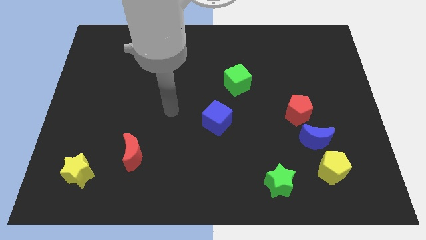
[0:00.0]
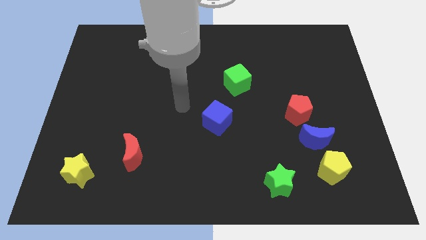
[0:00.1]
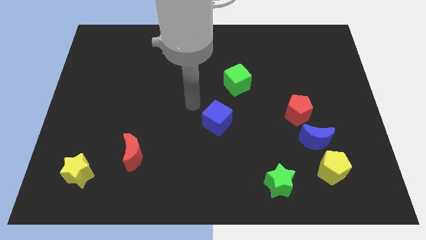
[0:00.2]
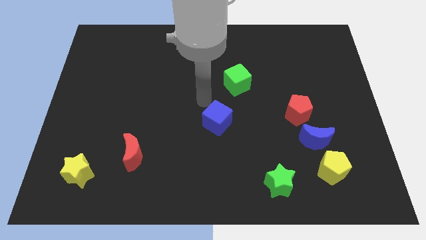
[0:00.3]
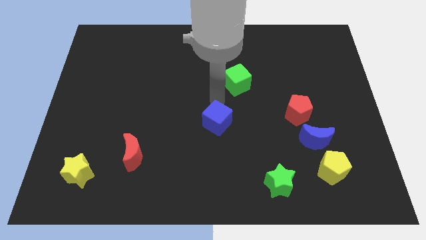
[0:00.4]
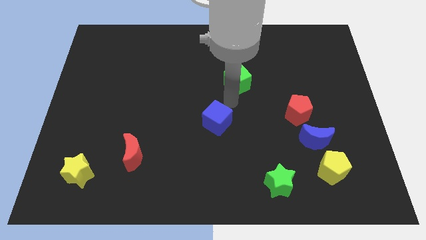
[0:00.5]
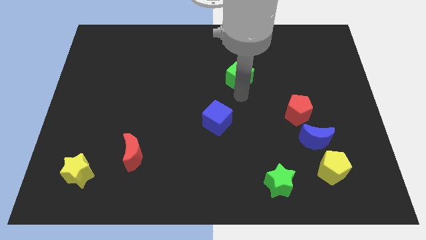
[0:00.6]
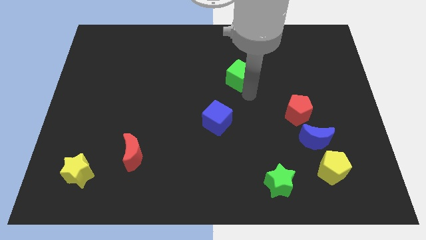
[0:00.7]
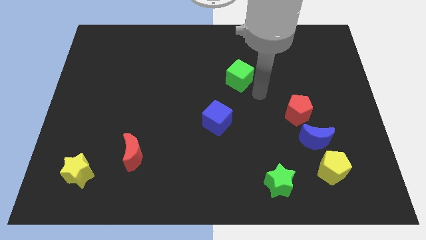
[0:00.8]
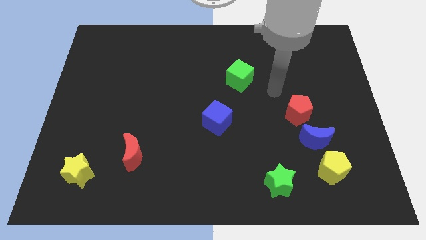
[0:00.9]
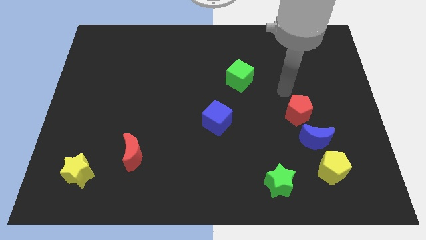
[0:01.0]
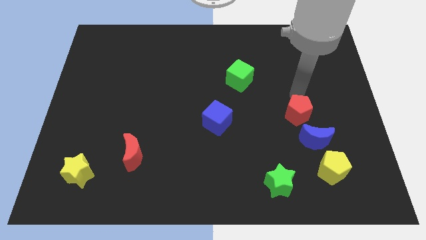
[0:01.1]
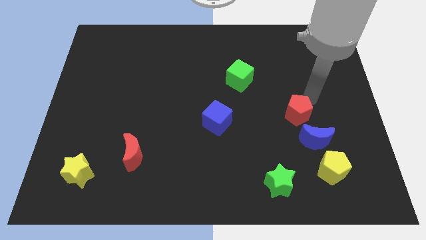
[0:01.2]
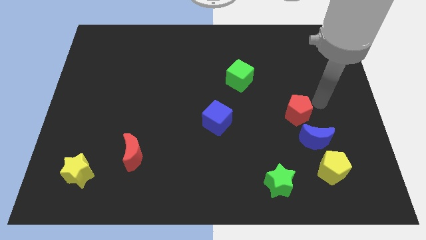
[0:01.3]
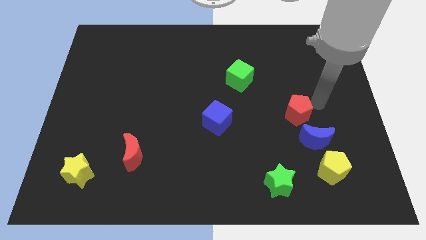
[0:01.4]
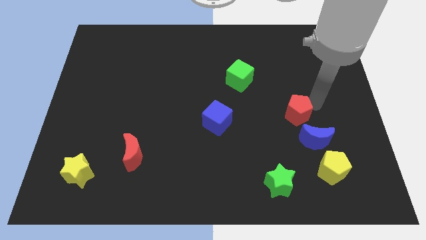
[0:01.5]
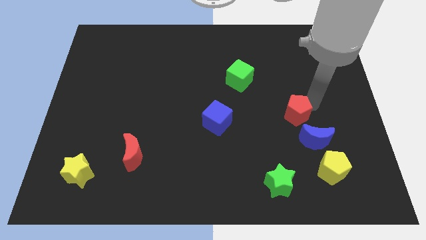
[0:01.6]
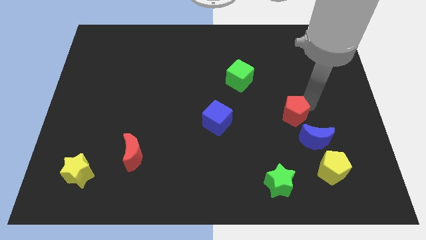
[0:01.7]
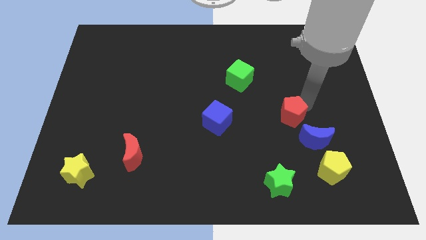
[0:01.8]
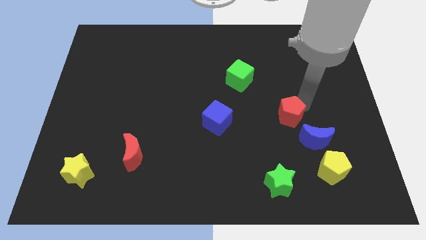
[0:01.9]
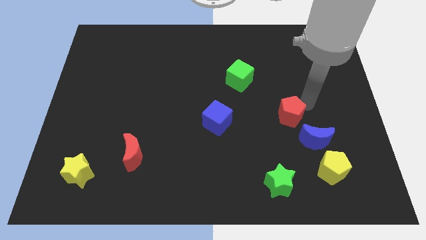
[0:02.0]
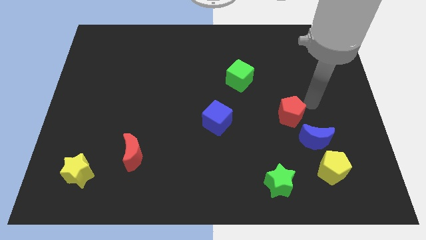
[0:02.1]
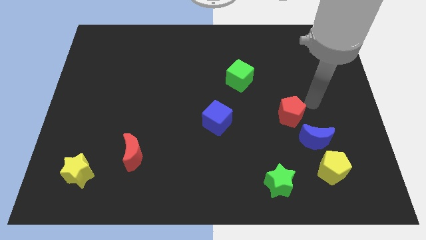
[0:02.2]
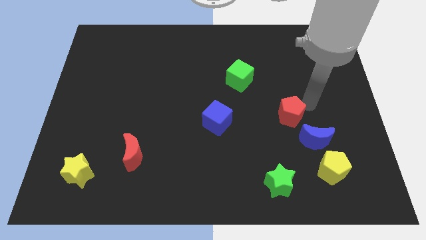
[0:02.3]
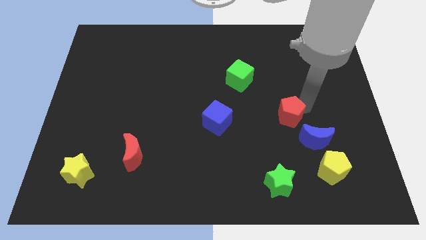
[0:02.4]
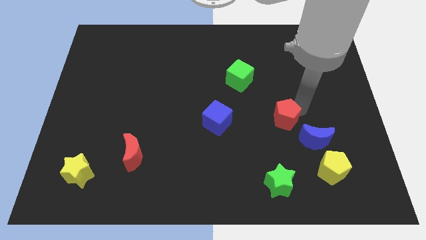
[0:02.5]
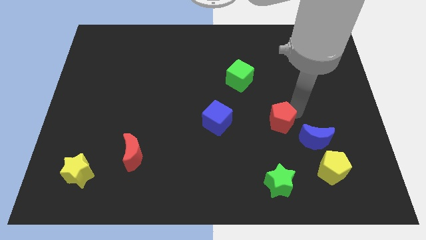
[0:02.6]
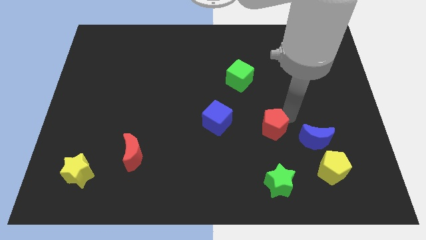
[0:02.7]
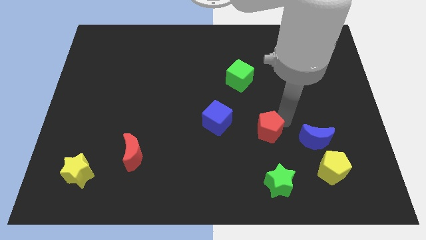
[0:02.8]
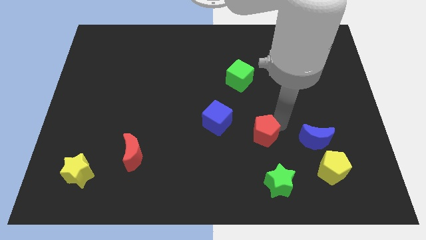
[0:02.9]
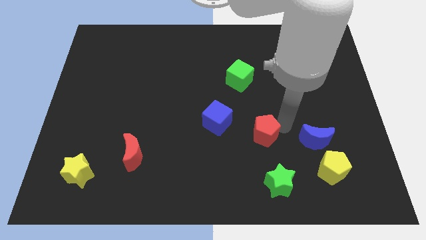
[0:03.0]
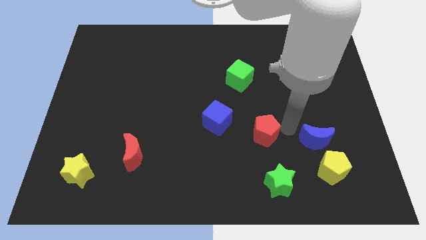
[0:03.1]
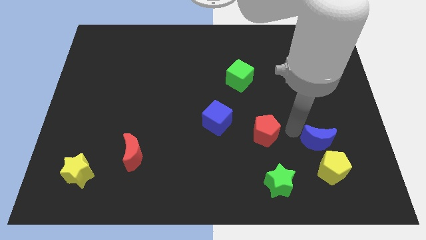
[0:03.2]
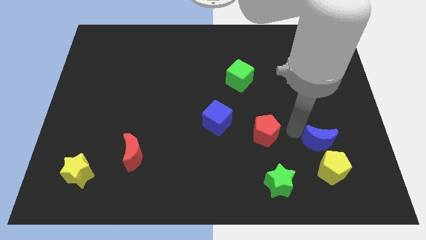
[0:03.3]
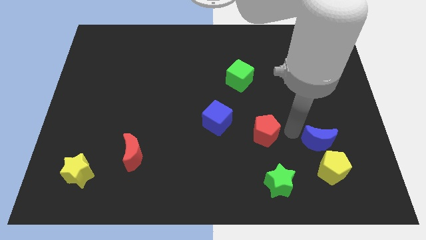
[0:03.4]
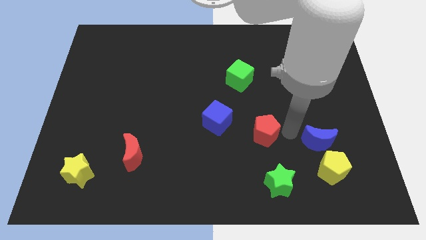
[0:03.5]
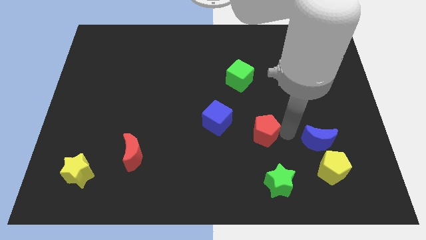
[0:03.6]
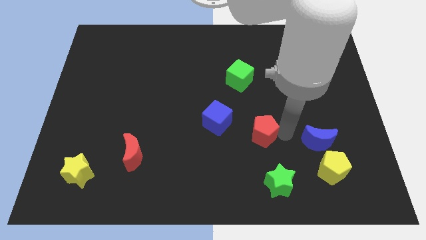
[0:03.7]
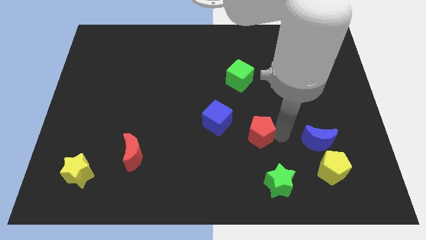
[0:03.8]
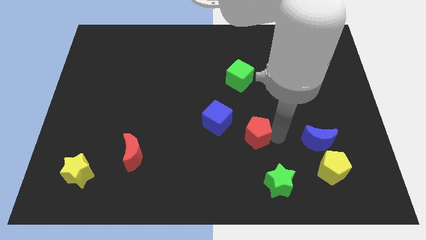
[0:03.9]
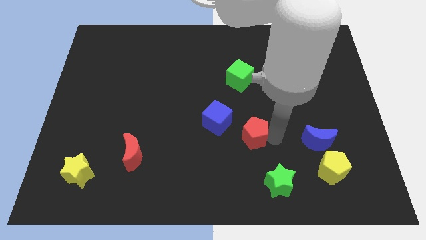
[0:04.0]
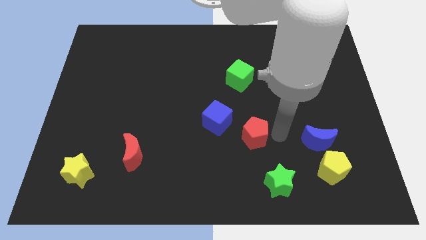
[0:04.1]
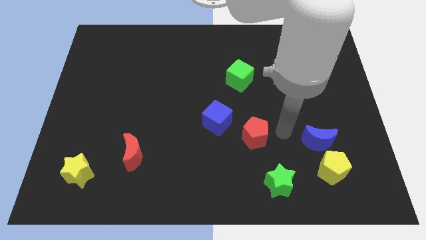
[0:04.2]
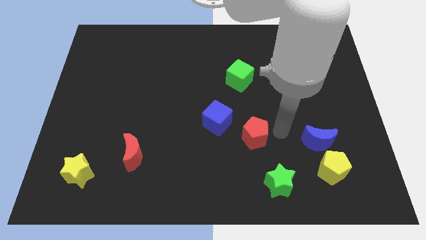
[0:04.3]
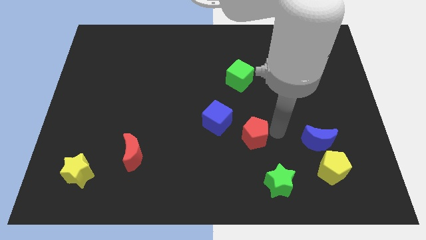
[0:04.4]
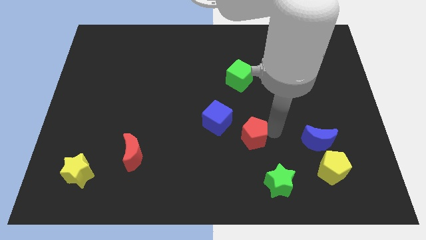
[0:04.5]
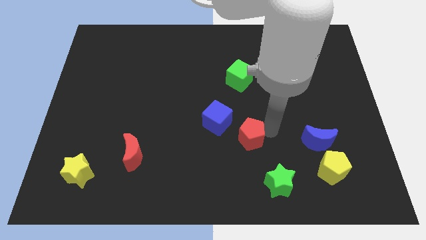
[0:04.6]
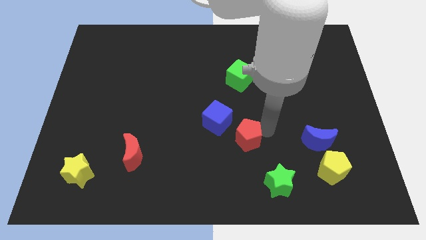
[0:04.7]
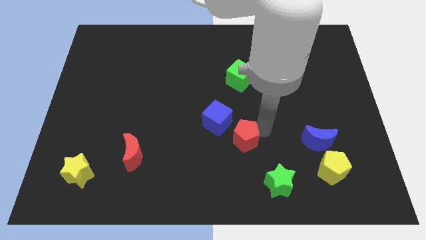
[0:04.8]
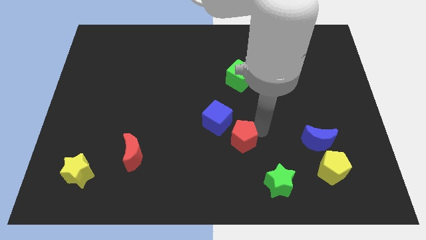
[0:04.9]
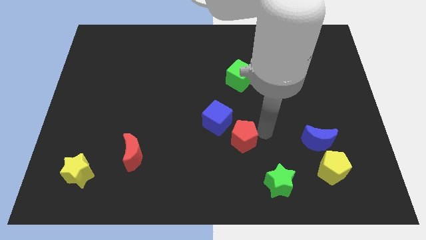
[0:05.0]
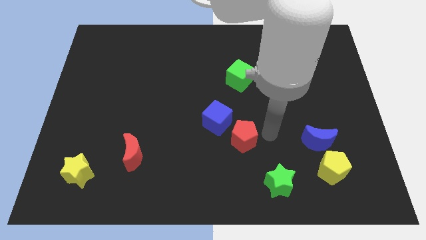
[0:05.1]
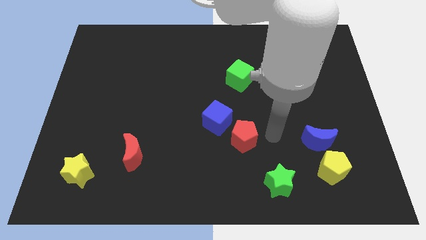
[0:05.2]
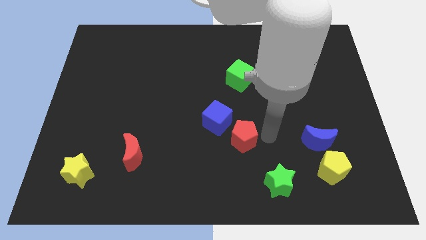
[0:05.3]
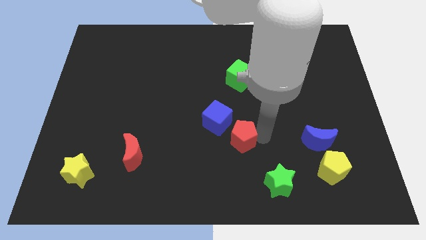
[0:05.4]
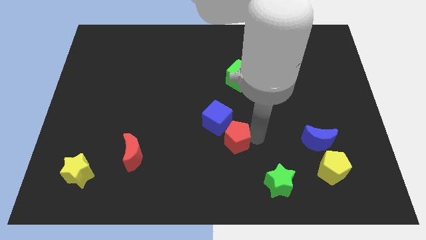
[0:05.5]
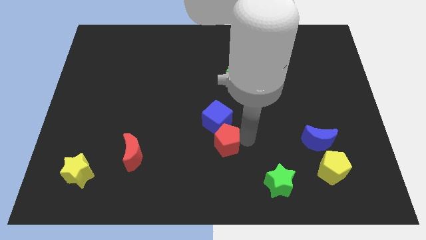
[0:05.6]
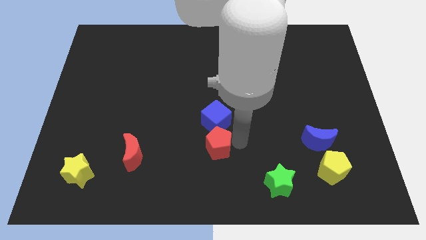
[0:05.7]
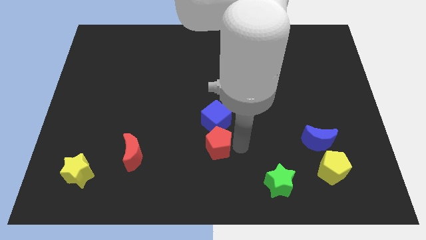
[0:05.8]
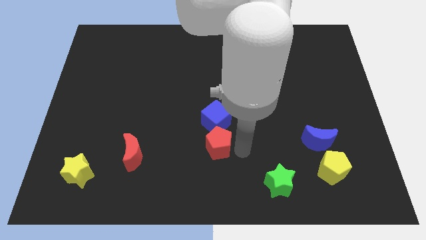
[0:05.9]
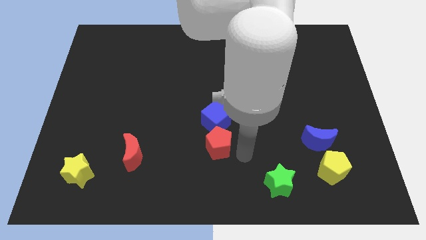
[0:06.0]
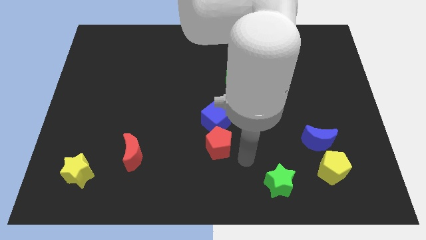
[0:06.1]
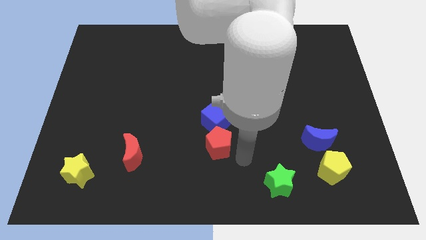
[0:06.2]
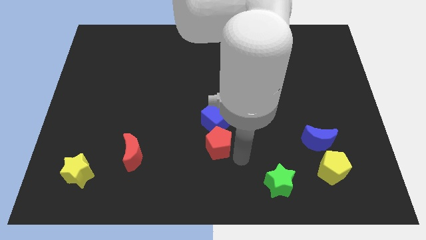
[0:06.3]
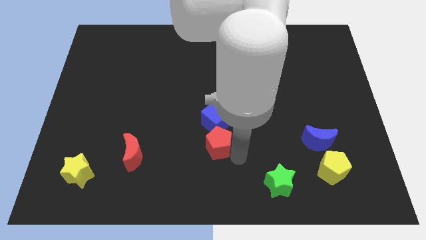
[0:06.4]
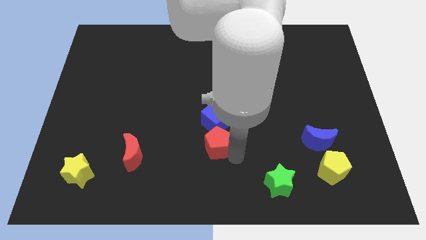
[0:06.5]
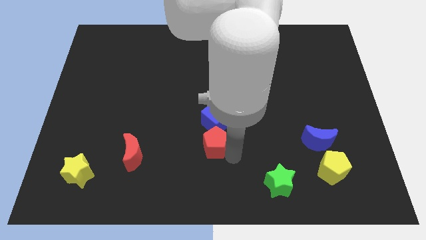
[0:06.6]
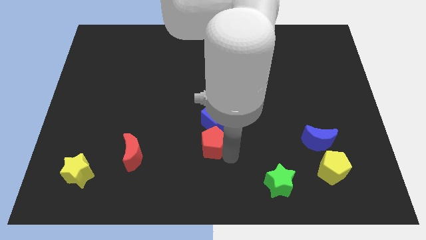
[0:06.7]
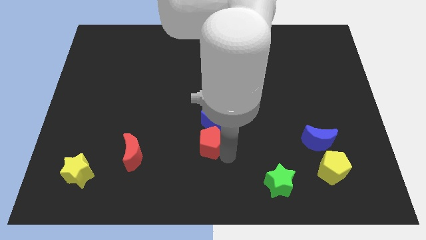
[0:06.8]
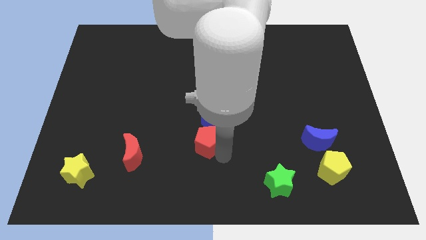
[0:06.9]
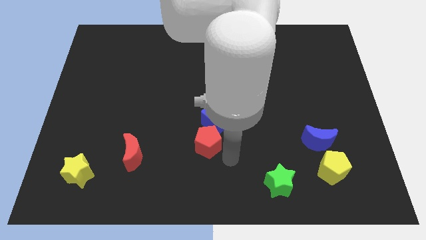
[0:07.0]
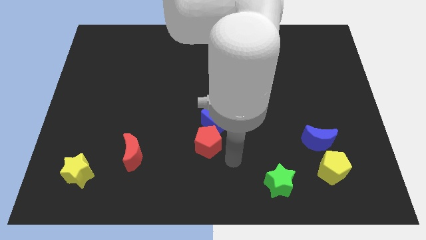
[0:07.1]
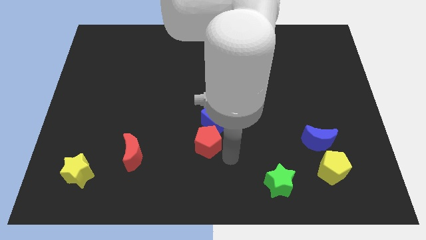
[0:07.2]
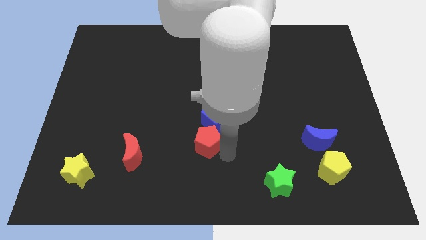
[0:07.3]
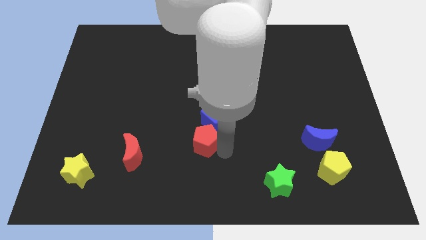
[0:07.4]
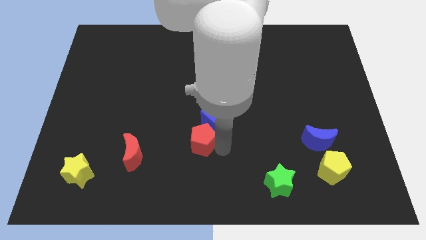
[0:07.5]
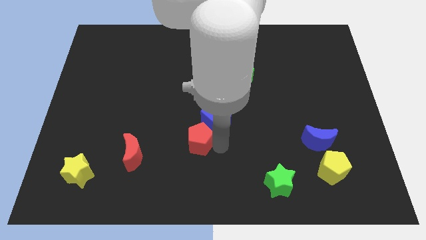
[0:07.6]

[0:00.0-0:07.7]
slide the red pentagon left

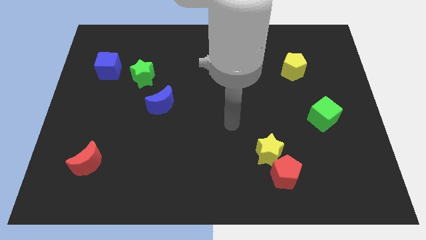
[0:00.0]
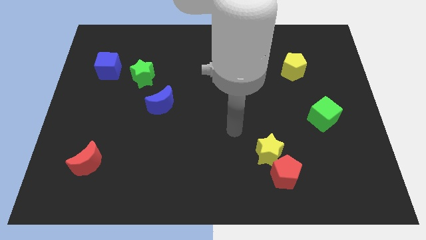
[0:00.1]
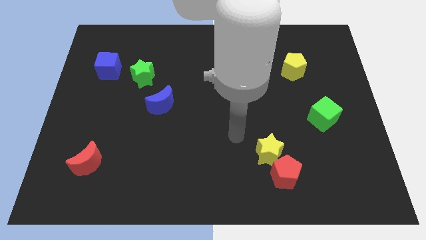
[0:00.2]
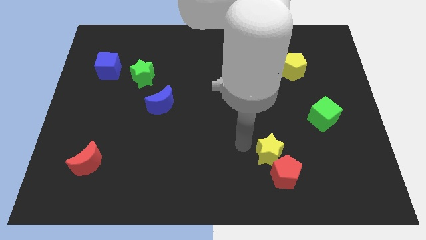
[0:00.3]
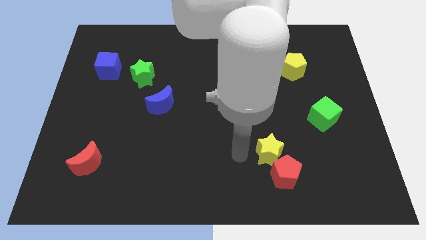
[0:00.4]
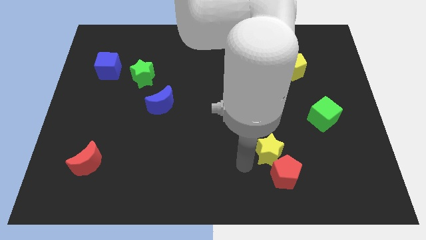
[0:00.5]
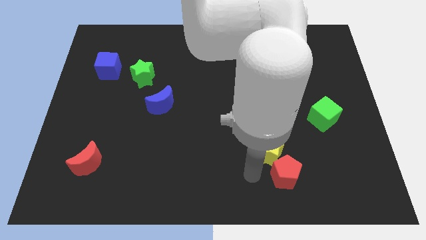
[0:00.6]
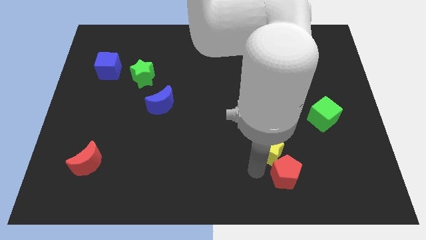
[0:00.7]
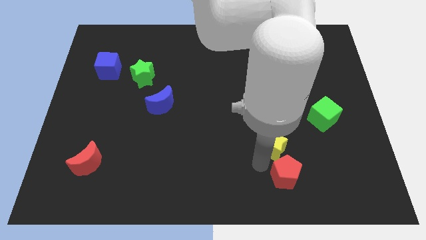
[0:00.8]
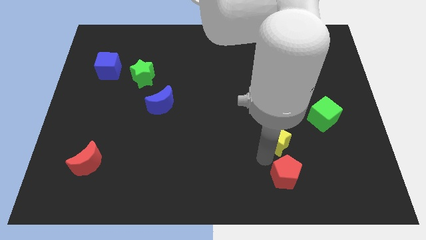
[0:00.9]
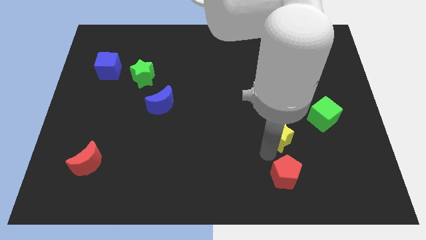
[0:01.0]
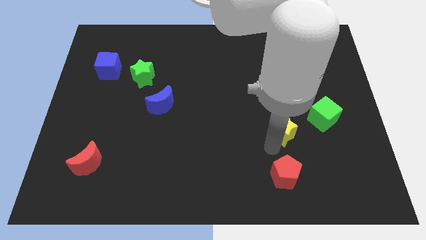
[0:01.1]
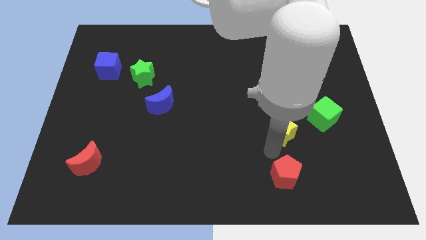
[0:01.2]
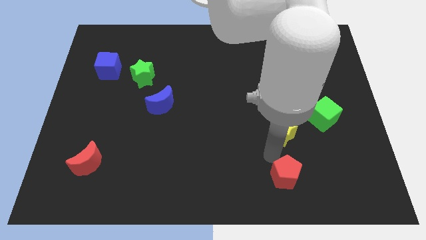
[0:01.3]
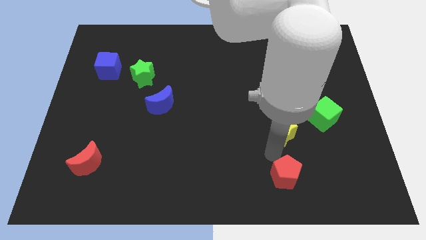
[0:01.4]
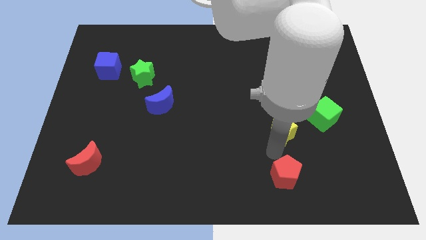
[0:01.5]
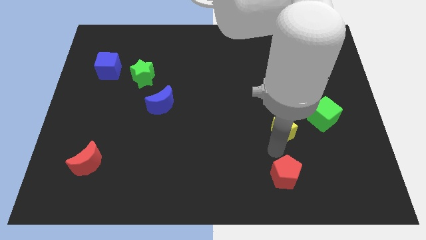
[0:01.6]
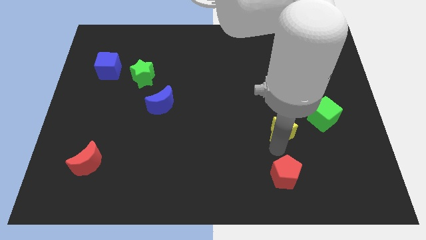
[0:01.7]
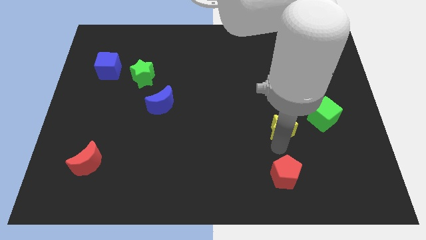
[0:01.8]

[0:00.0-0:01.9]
push the yellow star somewhat upwards and right
